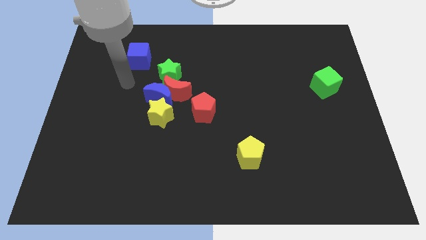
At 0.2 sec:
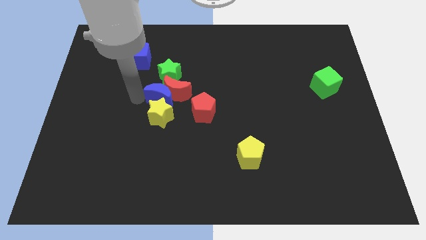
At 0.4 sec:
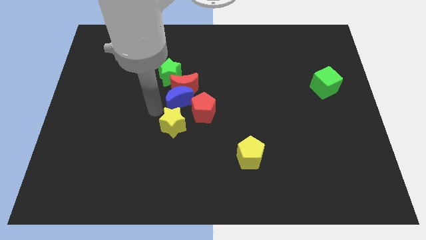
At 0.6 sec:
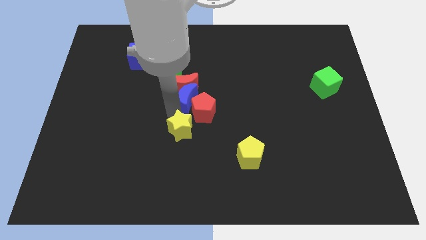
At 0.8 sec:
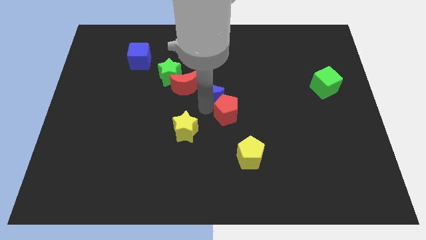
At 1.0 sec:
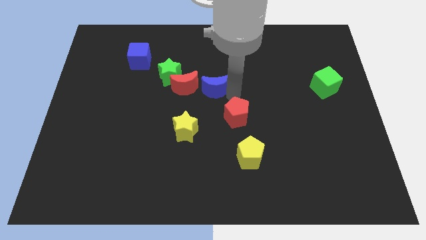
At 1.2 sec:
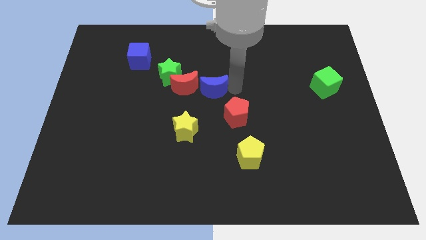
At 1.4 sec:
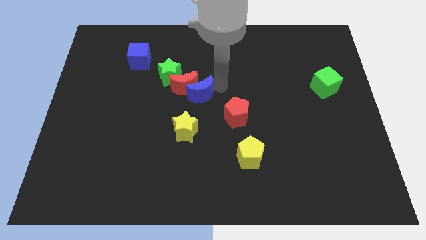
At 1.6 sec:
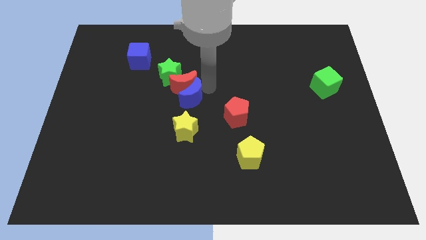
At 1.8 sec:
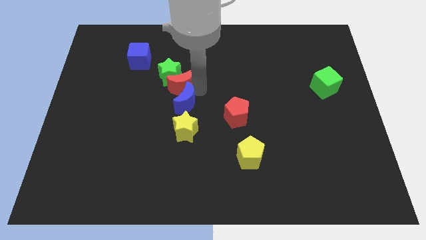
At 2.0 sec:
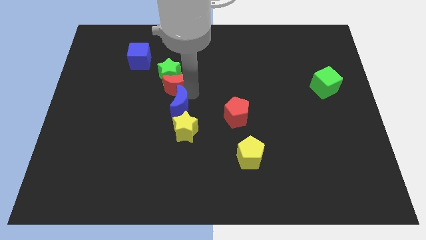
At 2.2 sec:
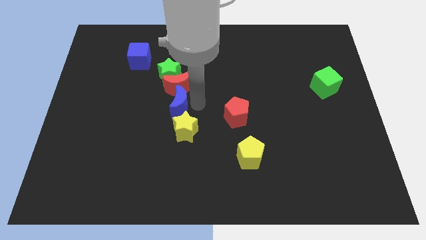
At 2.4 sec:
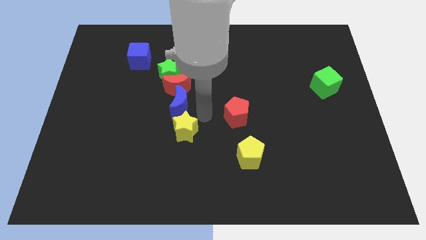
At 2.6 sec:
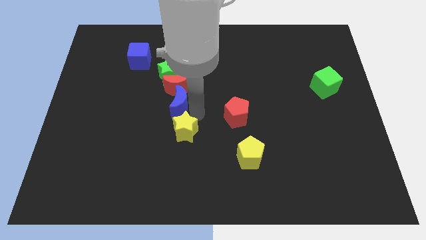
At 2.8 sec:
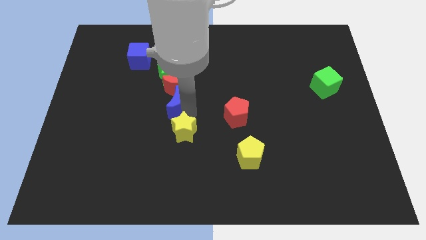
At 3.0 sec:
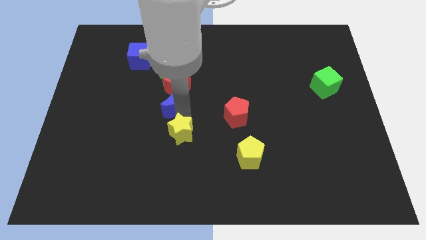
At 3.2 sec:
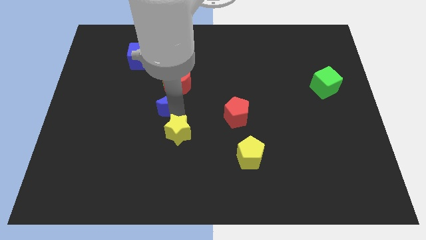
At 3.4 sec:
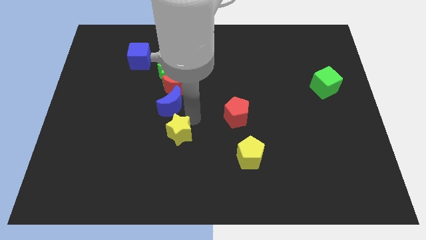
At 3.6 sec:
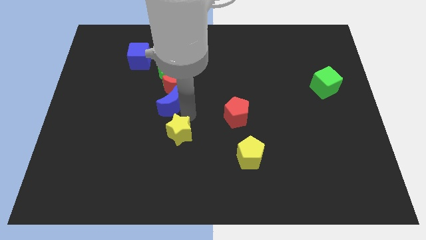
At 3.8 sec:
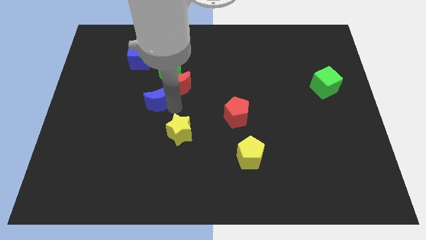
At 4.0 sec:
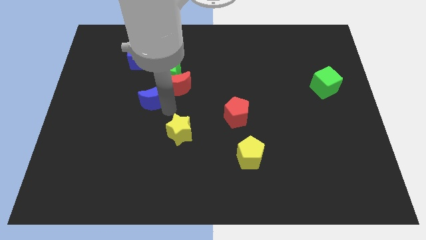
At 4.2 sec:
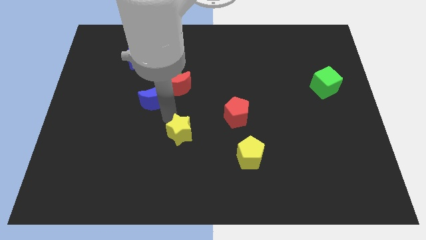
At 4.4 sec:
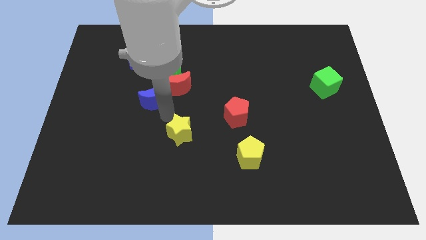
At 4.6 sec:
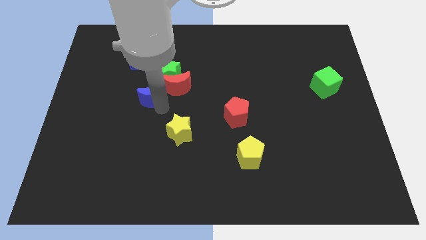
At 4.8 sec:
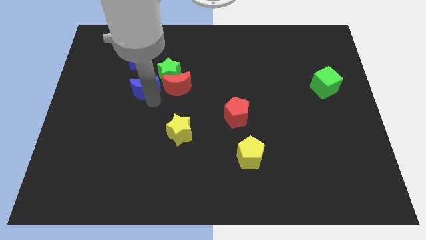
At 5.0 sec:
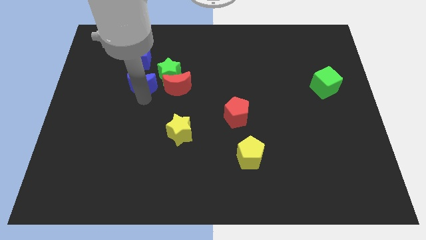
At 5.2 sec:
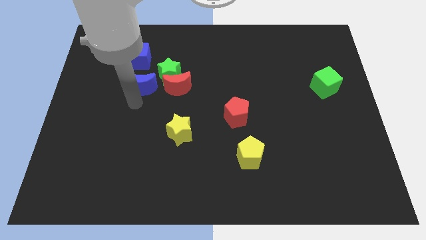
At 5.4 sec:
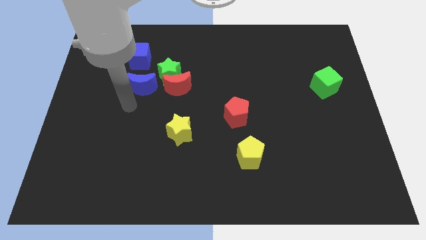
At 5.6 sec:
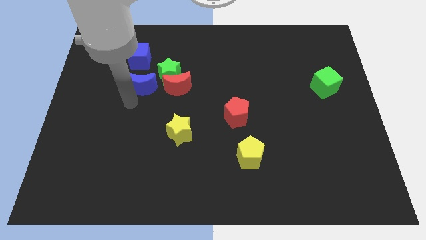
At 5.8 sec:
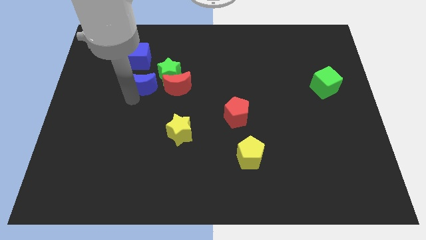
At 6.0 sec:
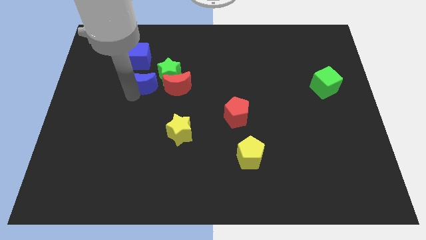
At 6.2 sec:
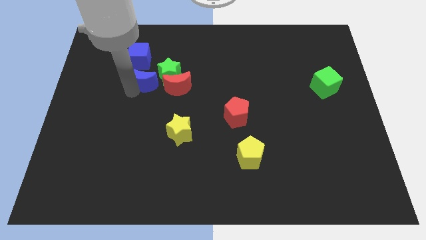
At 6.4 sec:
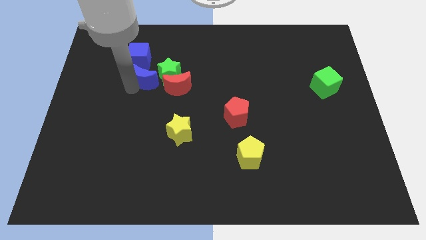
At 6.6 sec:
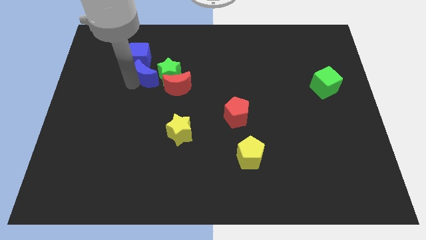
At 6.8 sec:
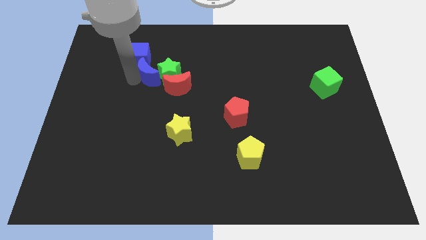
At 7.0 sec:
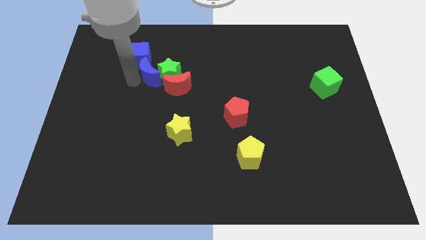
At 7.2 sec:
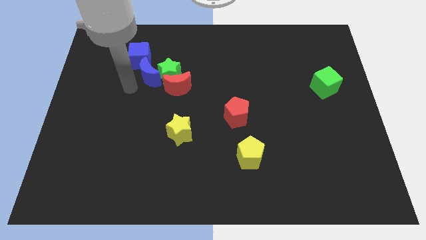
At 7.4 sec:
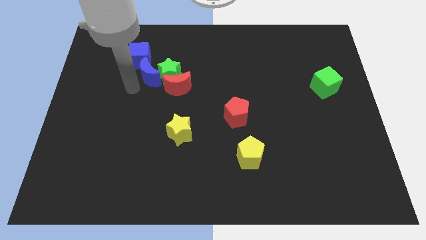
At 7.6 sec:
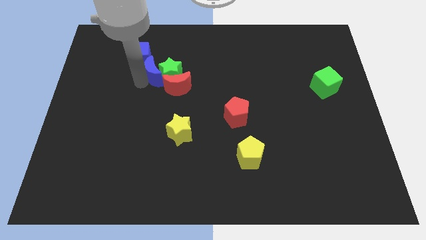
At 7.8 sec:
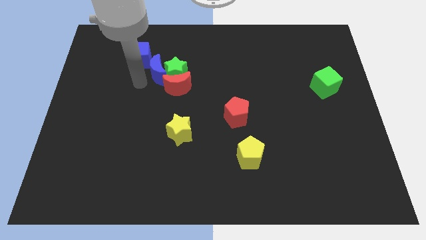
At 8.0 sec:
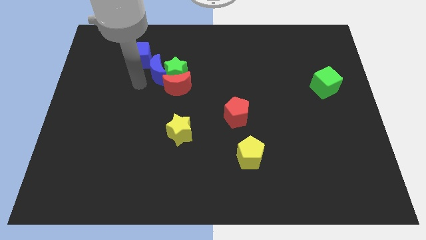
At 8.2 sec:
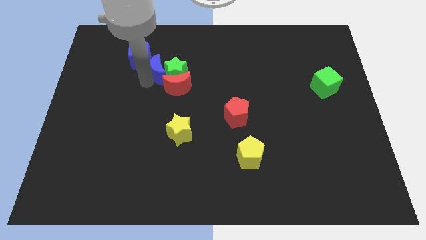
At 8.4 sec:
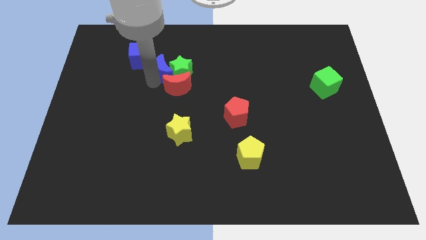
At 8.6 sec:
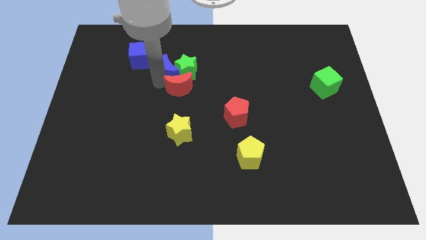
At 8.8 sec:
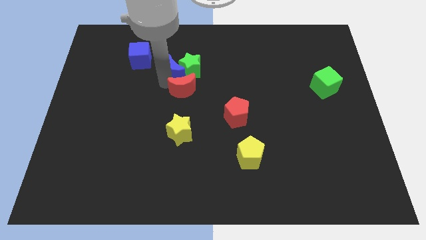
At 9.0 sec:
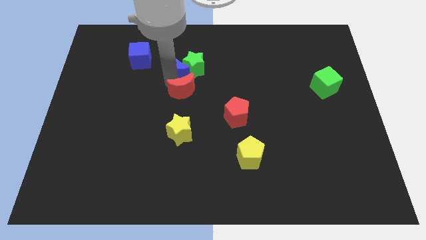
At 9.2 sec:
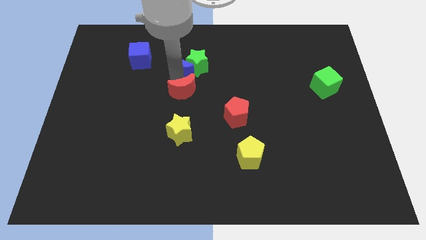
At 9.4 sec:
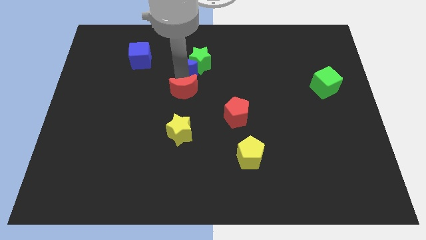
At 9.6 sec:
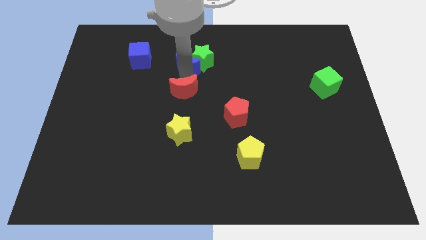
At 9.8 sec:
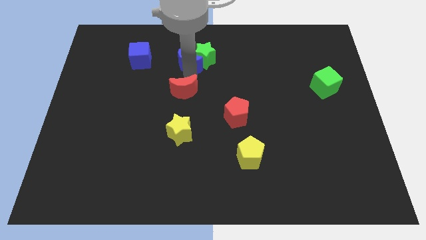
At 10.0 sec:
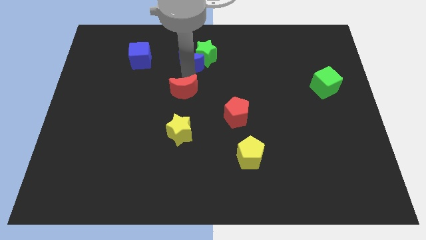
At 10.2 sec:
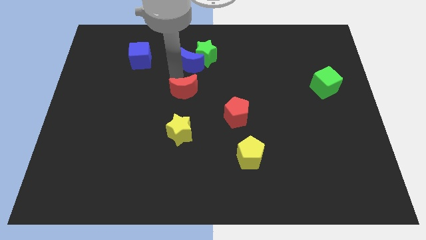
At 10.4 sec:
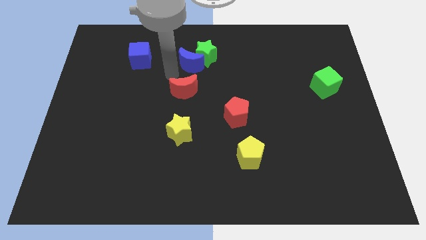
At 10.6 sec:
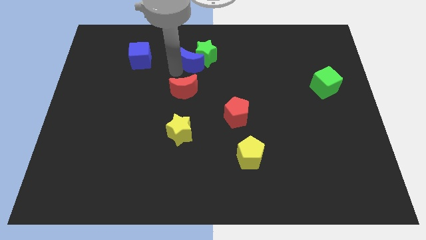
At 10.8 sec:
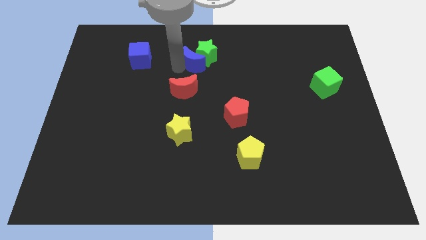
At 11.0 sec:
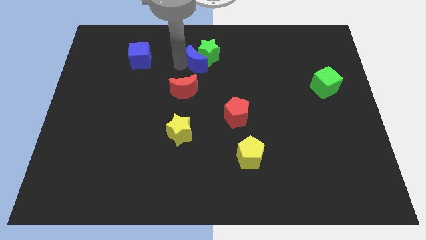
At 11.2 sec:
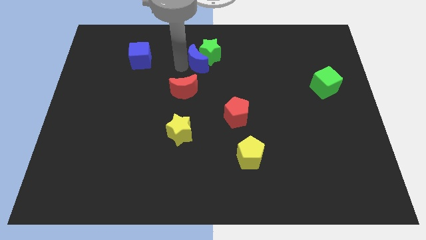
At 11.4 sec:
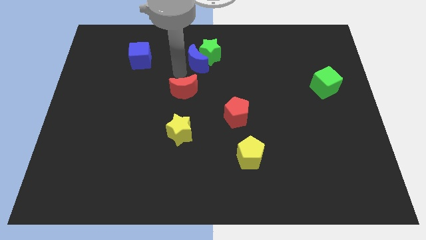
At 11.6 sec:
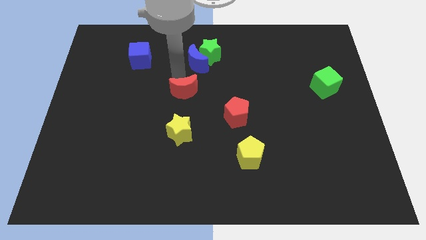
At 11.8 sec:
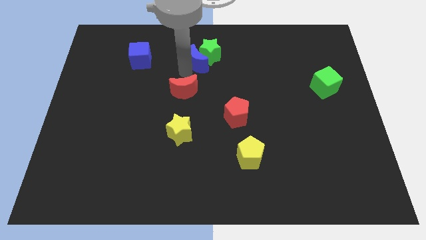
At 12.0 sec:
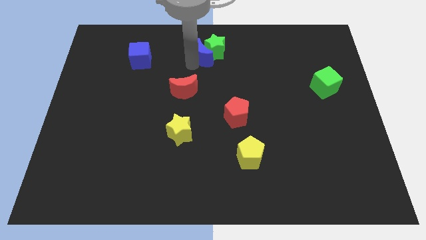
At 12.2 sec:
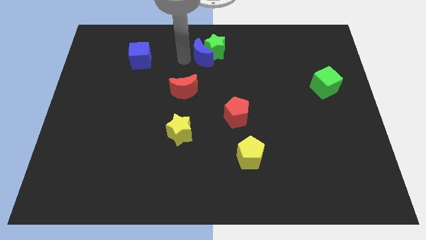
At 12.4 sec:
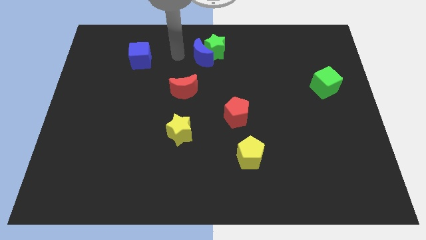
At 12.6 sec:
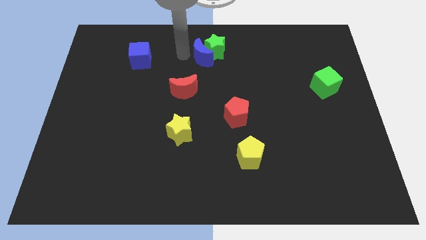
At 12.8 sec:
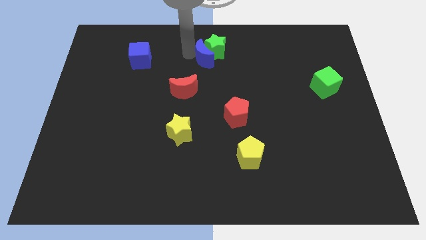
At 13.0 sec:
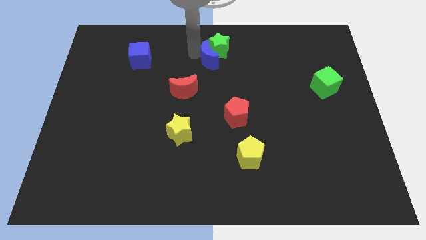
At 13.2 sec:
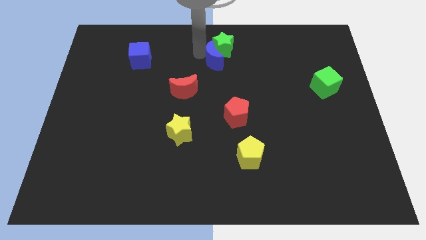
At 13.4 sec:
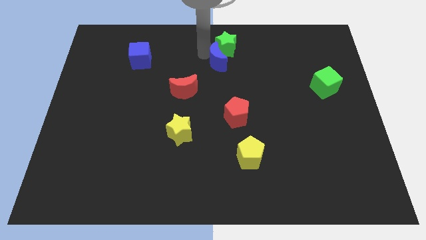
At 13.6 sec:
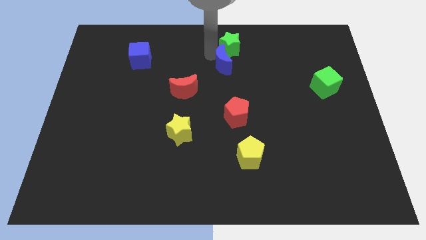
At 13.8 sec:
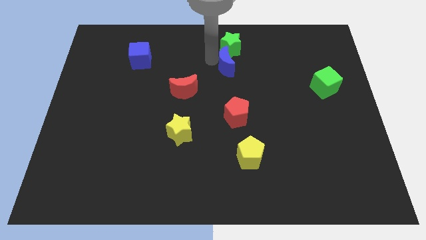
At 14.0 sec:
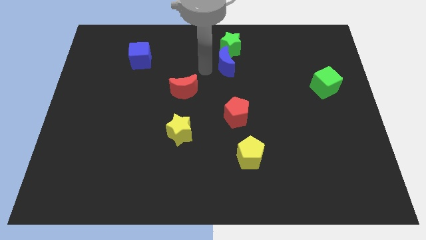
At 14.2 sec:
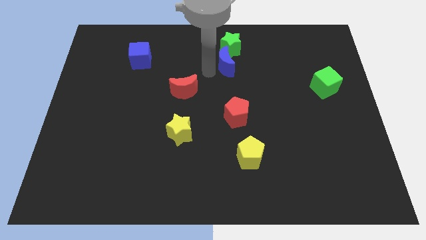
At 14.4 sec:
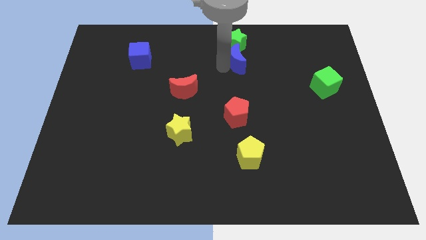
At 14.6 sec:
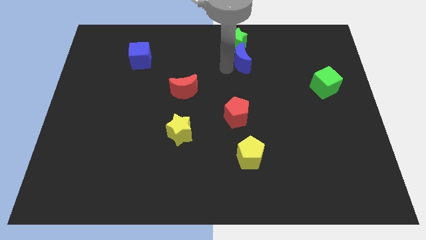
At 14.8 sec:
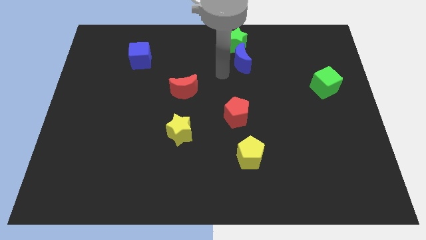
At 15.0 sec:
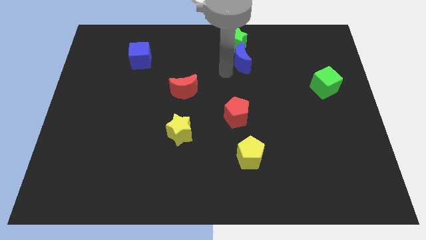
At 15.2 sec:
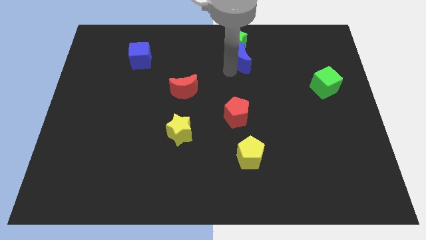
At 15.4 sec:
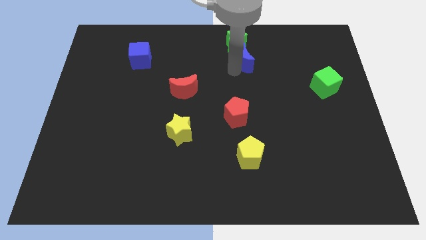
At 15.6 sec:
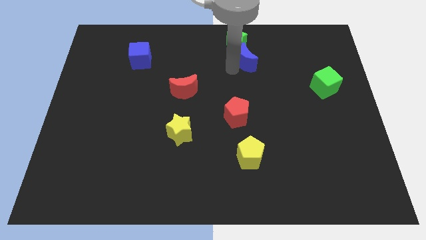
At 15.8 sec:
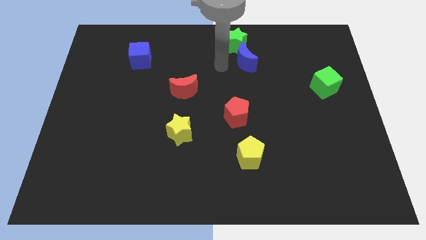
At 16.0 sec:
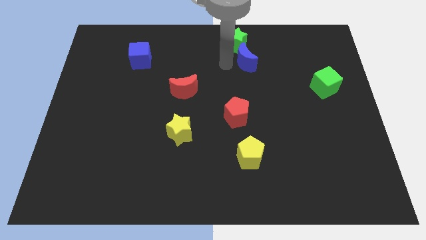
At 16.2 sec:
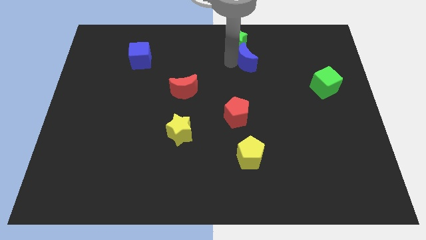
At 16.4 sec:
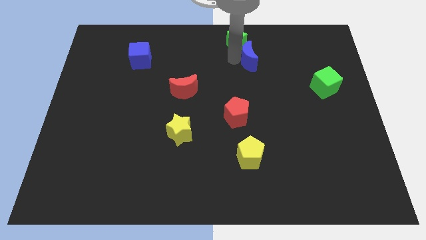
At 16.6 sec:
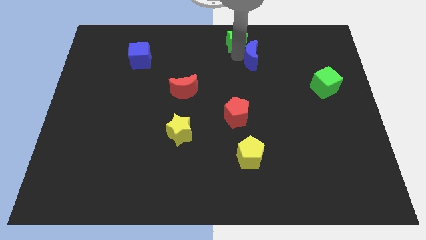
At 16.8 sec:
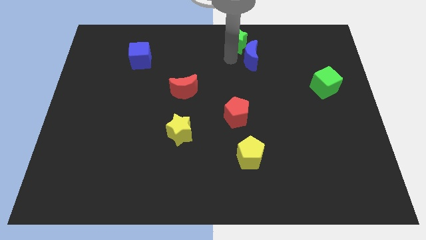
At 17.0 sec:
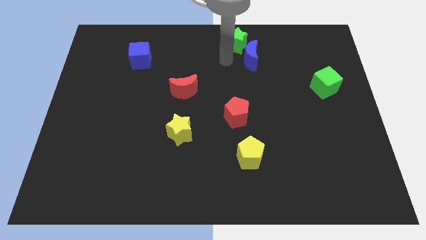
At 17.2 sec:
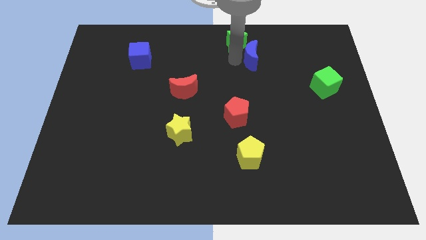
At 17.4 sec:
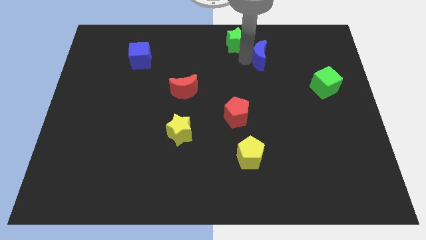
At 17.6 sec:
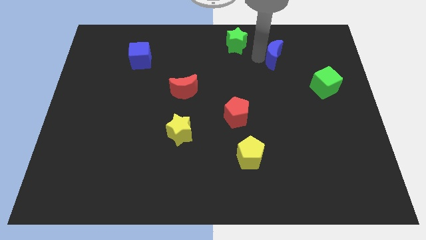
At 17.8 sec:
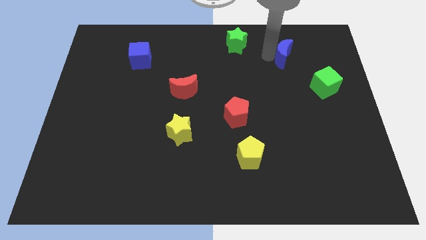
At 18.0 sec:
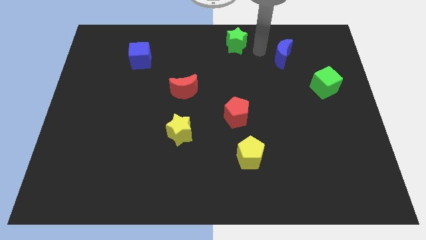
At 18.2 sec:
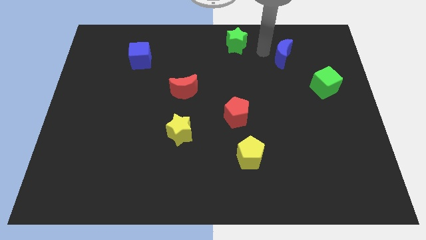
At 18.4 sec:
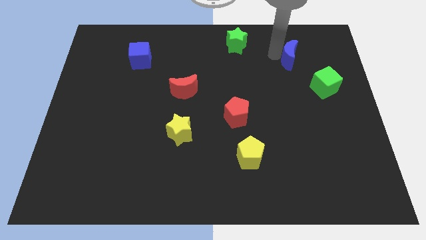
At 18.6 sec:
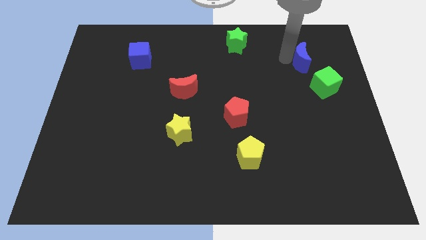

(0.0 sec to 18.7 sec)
put the blue moon above the green cube
